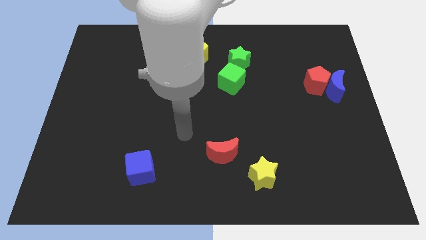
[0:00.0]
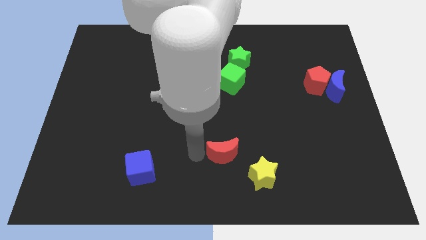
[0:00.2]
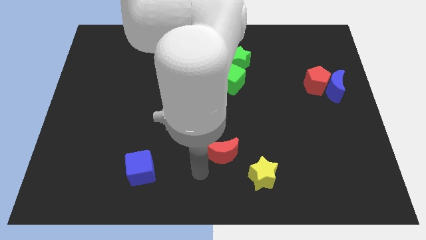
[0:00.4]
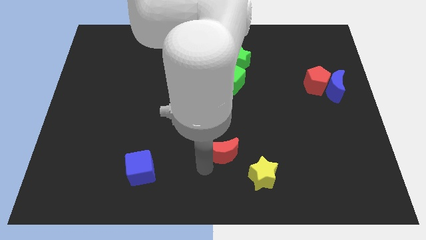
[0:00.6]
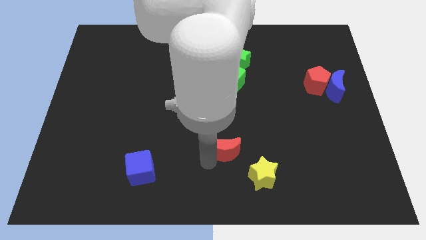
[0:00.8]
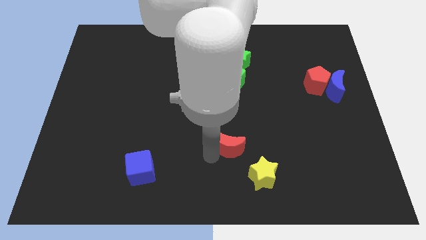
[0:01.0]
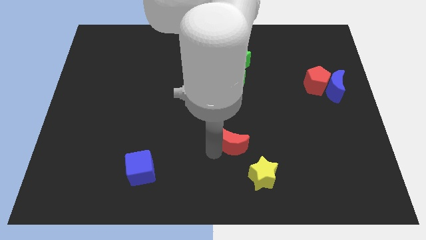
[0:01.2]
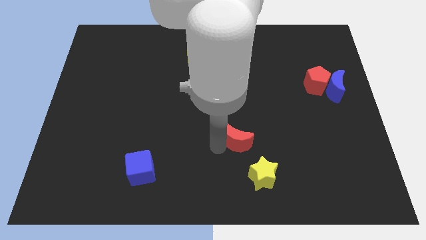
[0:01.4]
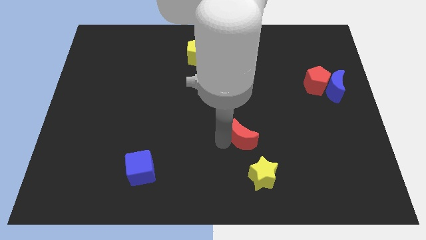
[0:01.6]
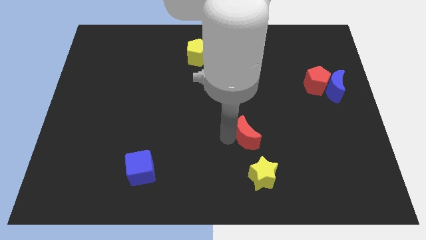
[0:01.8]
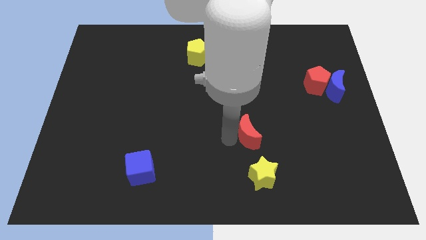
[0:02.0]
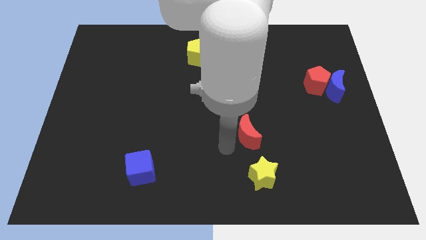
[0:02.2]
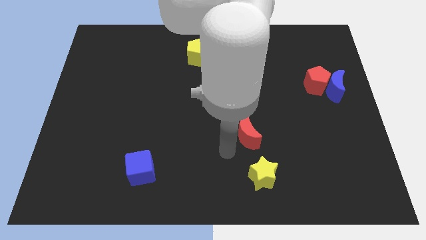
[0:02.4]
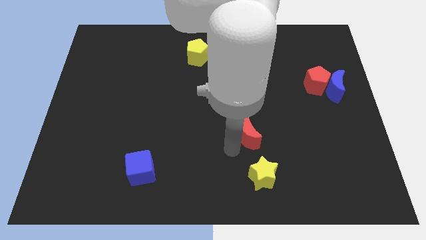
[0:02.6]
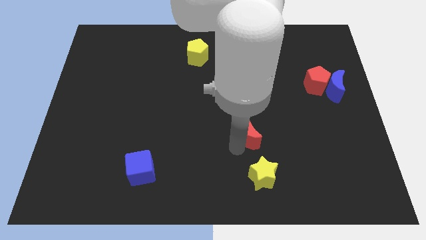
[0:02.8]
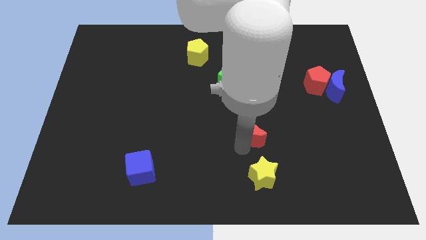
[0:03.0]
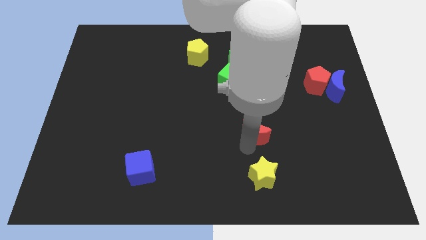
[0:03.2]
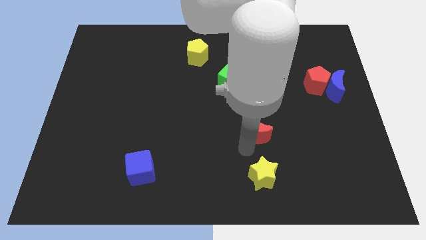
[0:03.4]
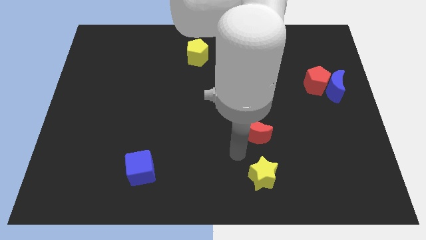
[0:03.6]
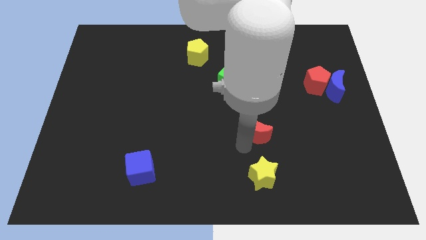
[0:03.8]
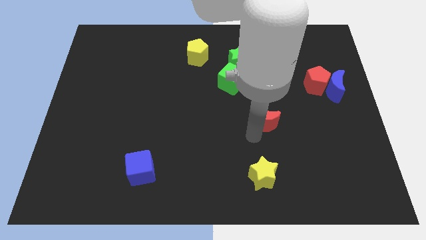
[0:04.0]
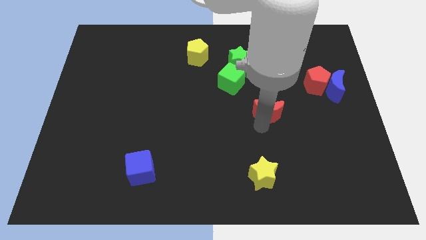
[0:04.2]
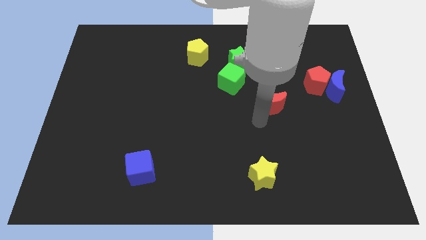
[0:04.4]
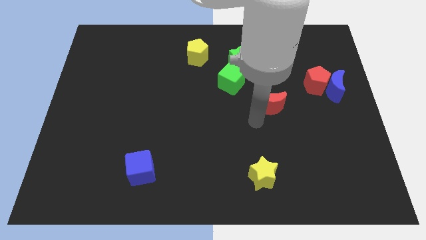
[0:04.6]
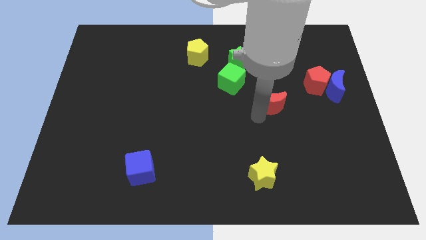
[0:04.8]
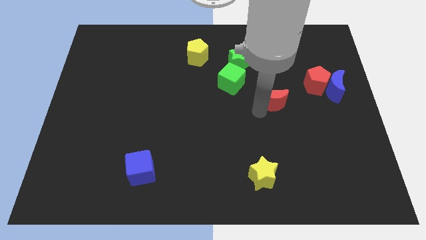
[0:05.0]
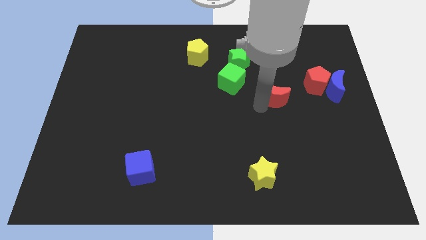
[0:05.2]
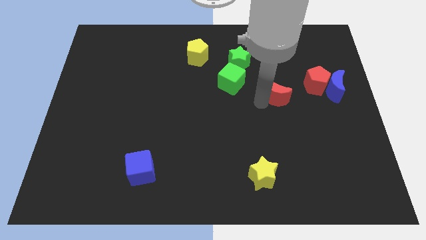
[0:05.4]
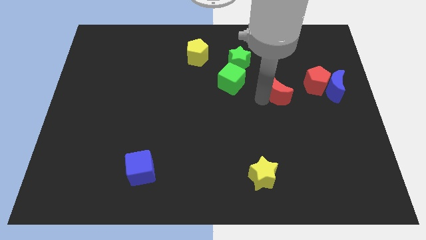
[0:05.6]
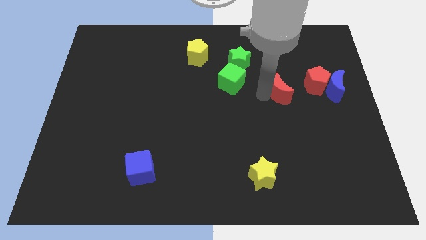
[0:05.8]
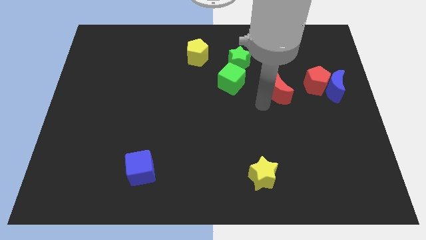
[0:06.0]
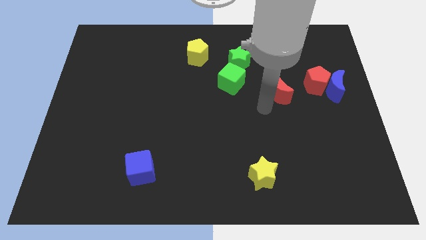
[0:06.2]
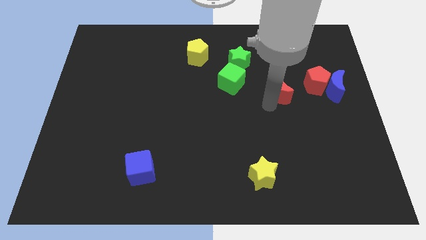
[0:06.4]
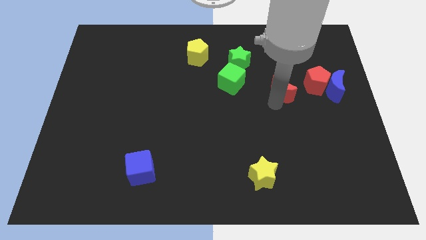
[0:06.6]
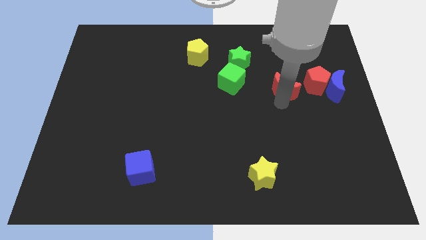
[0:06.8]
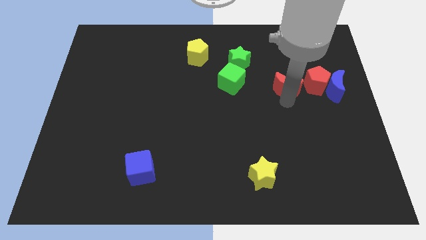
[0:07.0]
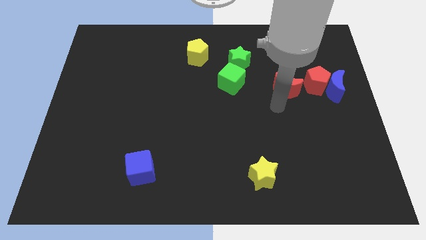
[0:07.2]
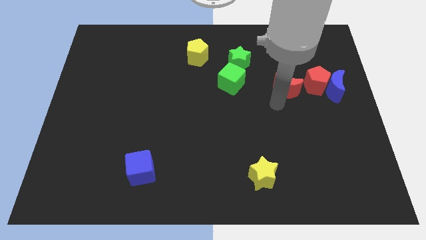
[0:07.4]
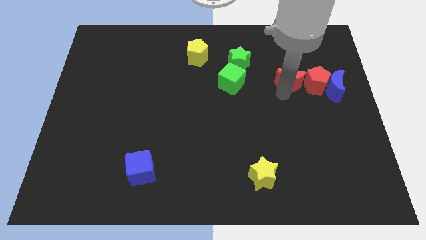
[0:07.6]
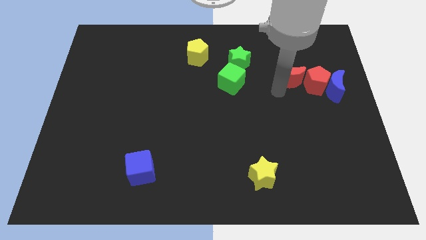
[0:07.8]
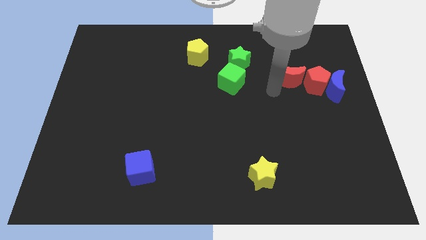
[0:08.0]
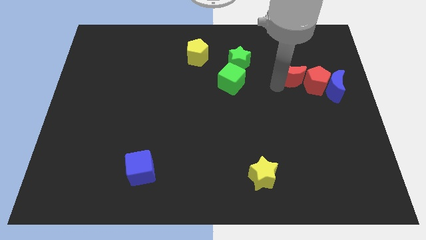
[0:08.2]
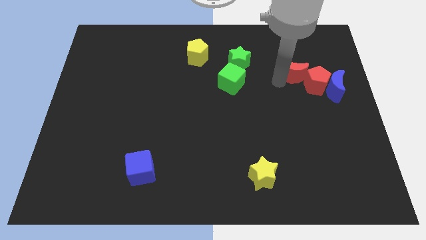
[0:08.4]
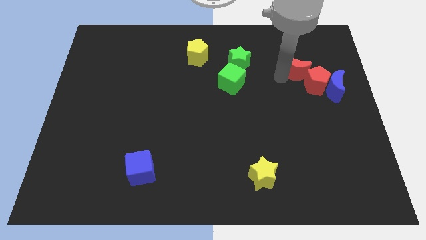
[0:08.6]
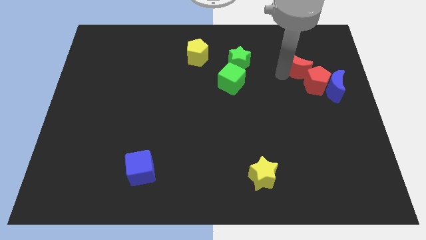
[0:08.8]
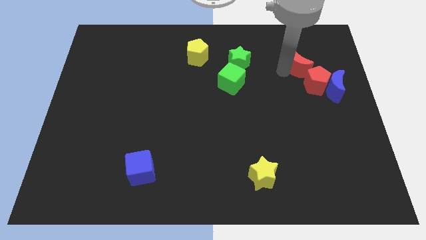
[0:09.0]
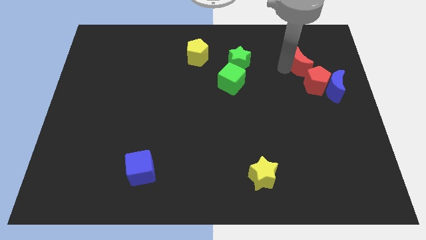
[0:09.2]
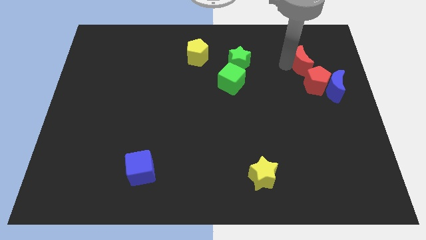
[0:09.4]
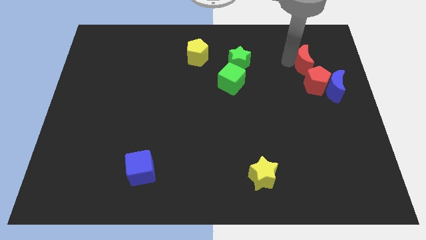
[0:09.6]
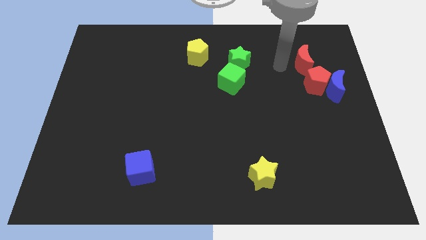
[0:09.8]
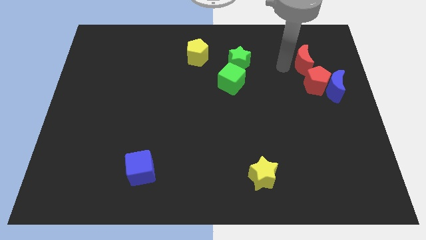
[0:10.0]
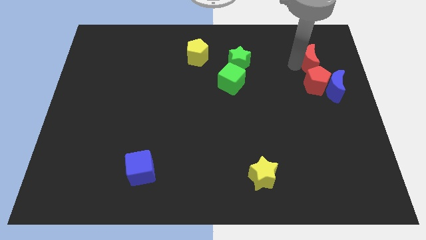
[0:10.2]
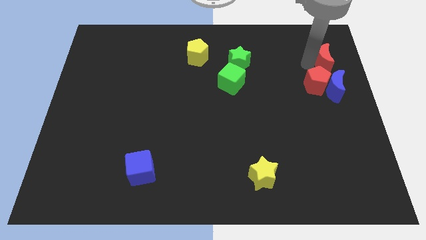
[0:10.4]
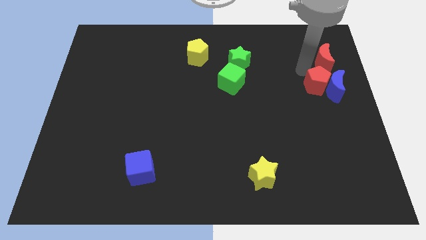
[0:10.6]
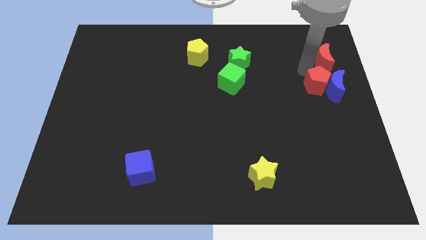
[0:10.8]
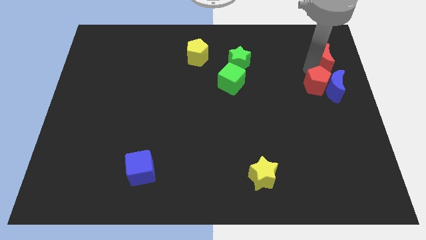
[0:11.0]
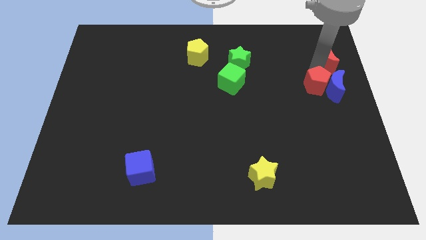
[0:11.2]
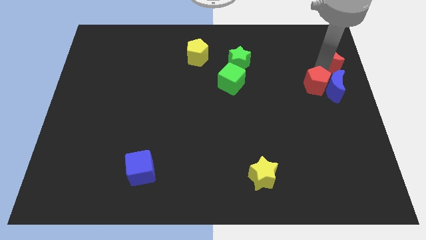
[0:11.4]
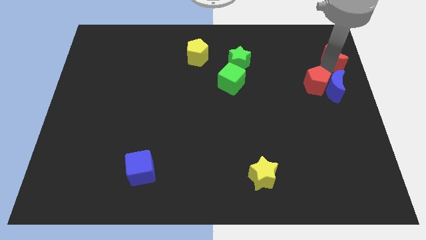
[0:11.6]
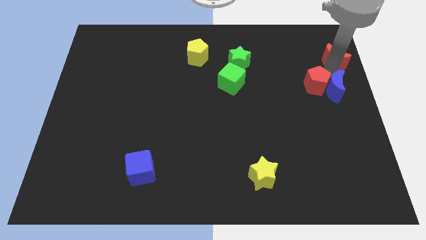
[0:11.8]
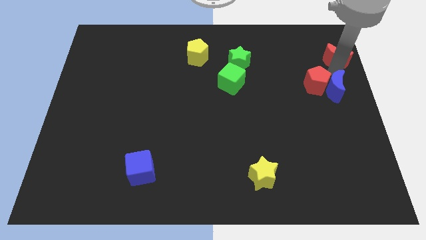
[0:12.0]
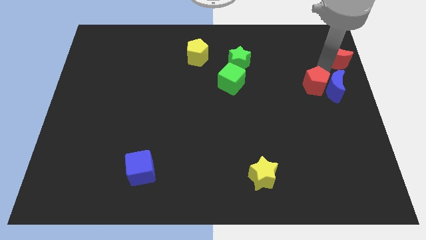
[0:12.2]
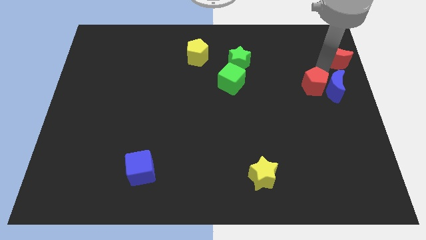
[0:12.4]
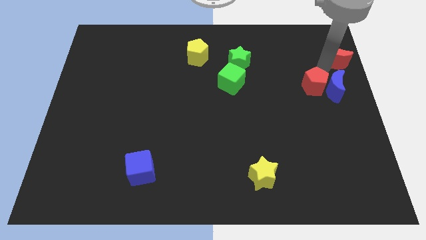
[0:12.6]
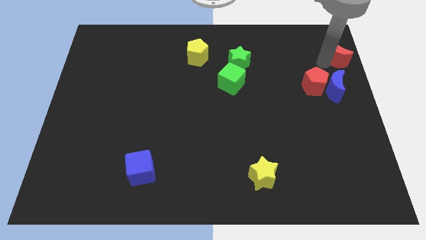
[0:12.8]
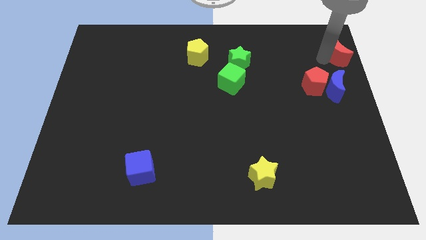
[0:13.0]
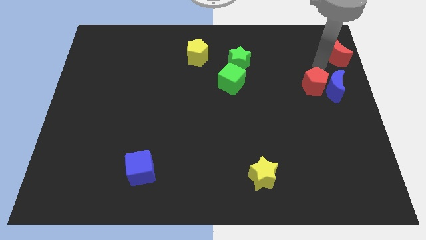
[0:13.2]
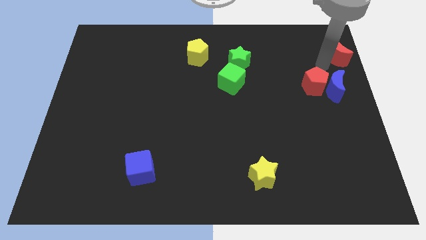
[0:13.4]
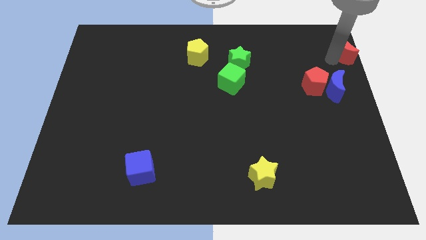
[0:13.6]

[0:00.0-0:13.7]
put the red moon to the upper right corner
